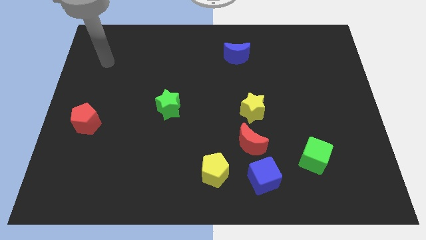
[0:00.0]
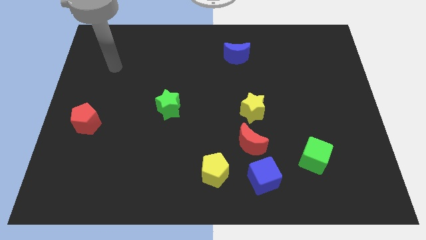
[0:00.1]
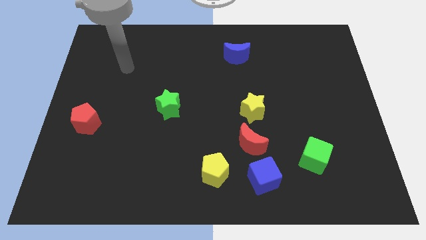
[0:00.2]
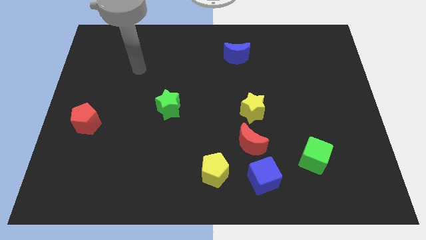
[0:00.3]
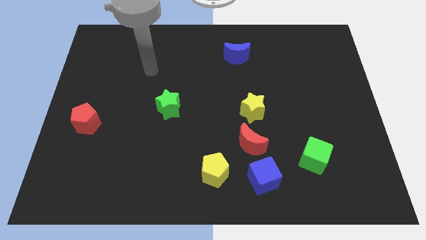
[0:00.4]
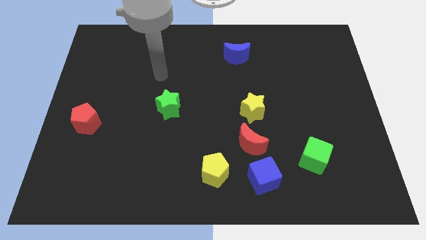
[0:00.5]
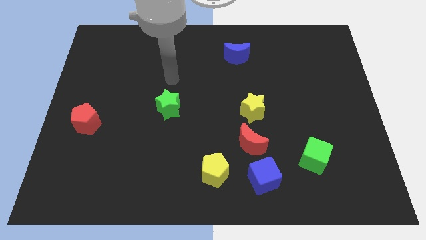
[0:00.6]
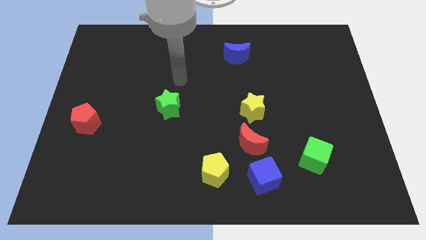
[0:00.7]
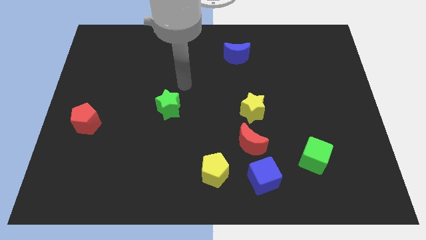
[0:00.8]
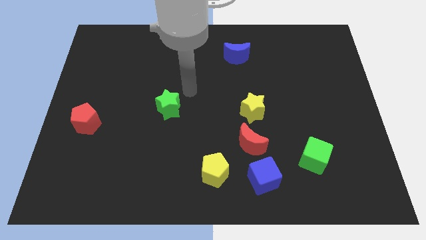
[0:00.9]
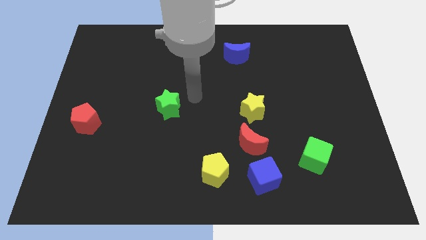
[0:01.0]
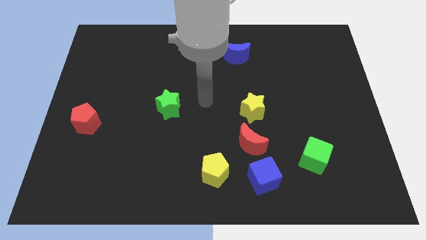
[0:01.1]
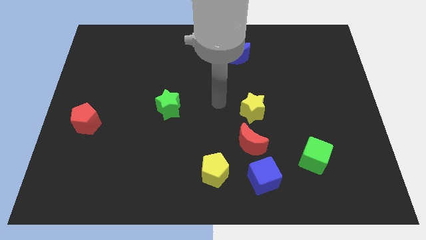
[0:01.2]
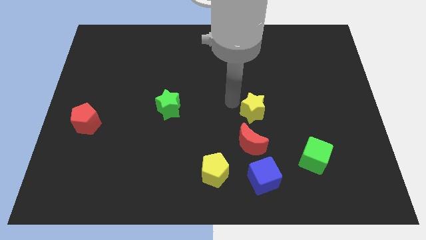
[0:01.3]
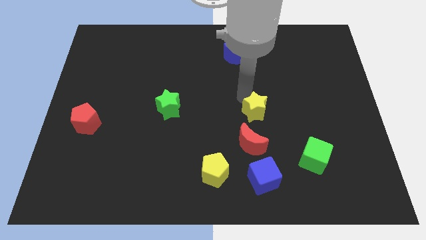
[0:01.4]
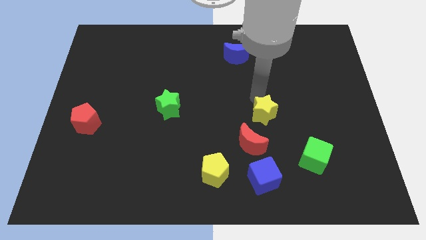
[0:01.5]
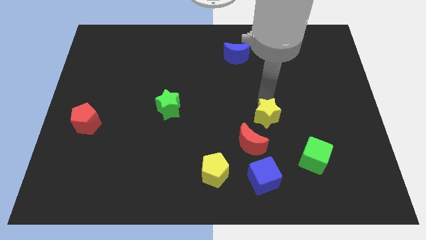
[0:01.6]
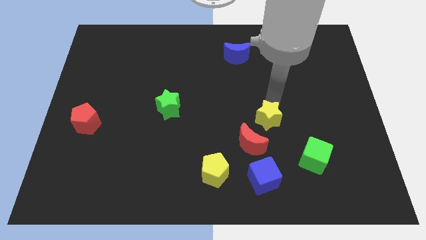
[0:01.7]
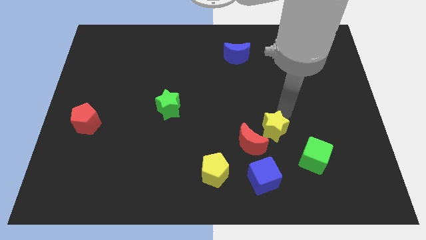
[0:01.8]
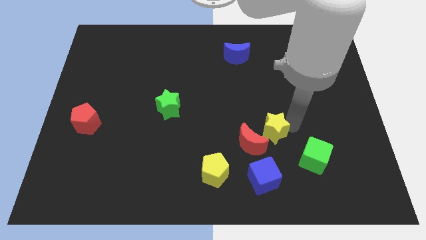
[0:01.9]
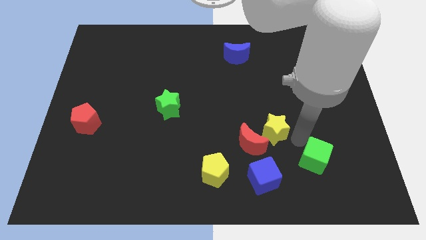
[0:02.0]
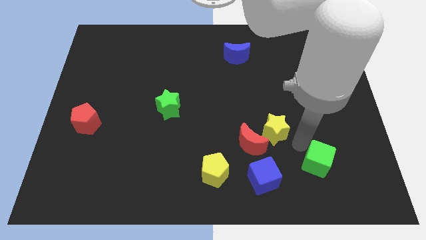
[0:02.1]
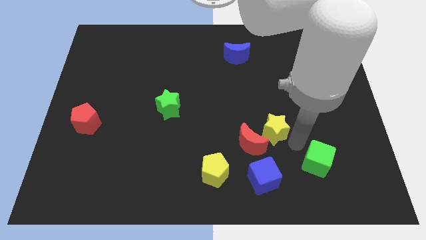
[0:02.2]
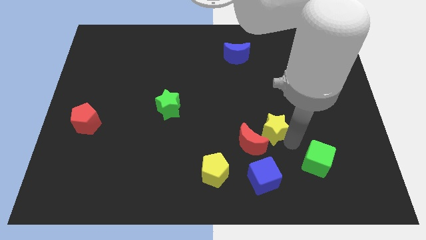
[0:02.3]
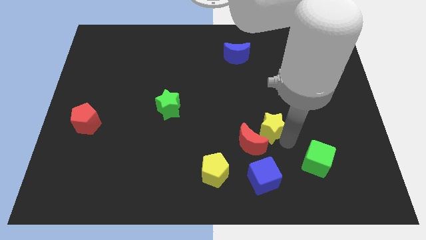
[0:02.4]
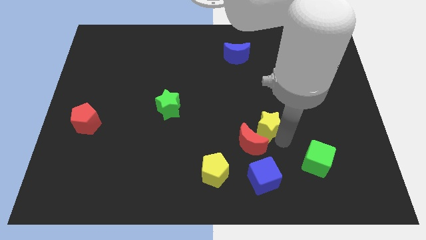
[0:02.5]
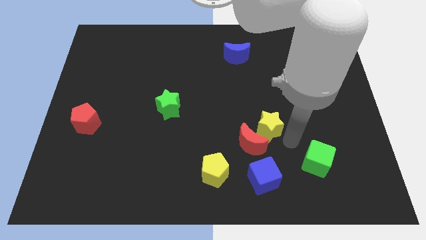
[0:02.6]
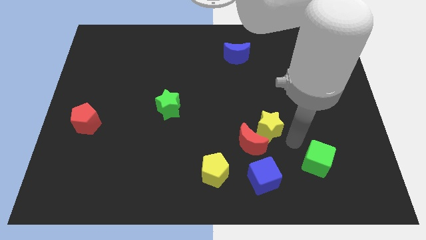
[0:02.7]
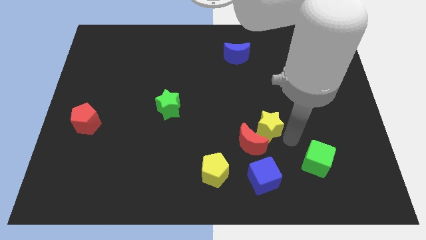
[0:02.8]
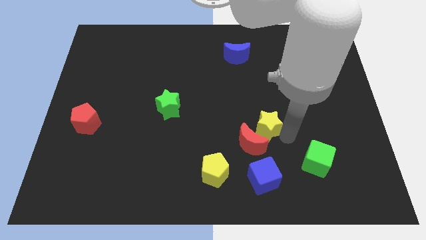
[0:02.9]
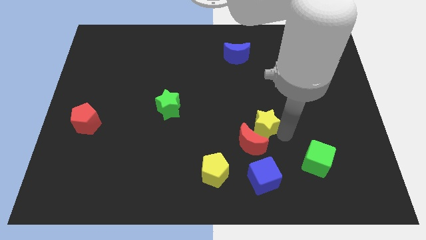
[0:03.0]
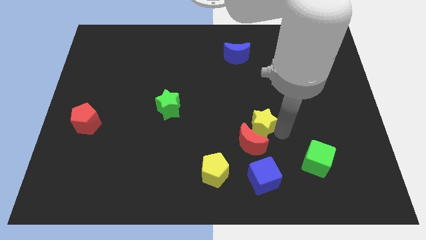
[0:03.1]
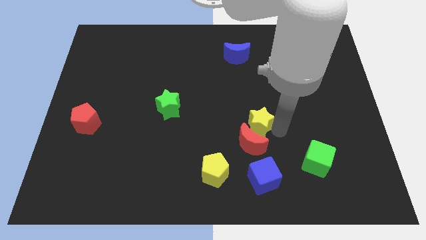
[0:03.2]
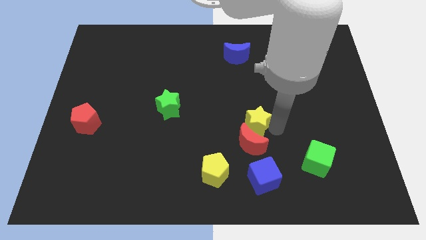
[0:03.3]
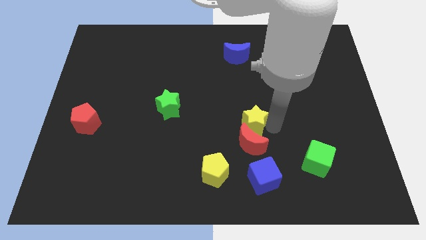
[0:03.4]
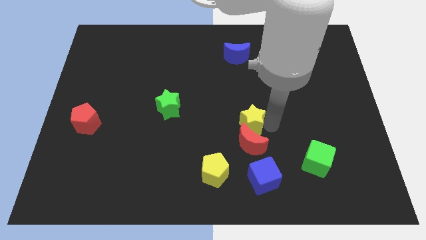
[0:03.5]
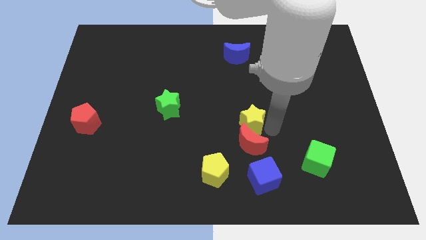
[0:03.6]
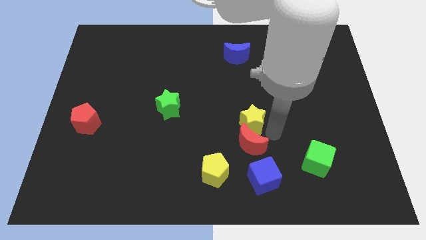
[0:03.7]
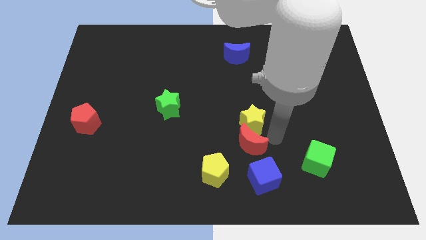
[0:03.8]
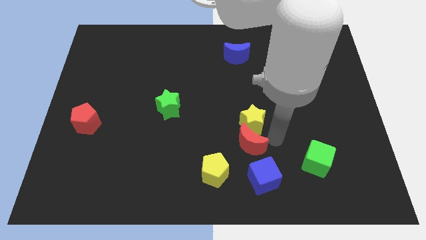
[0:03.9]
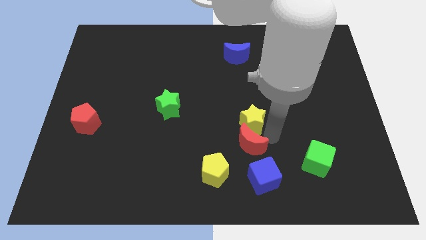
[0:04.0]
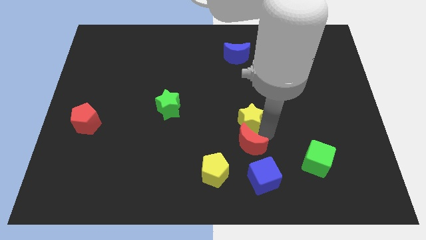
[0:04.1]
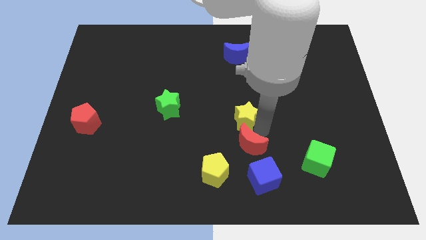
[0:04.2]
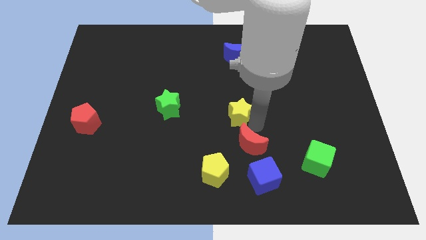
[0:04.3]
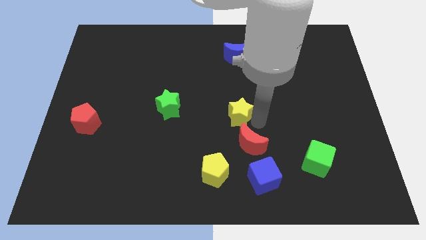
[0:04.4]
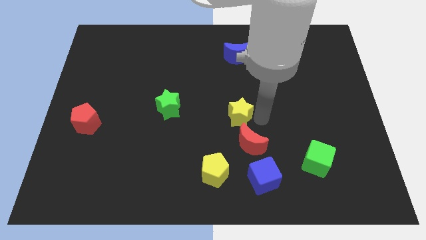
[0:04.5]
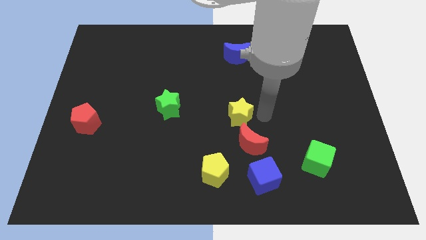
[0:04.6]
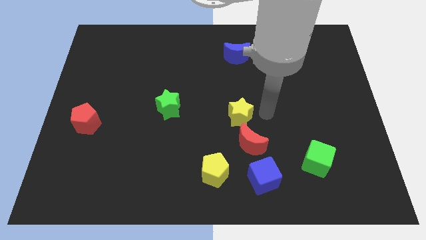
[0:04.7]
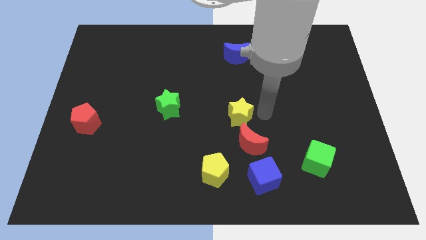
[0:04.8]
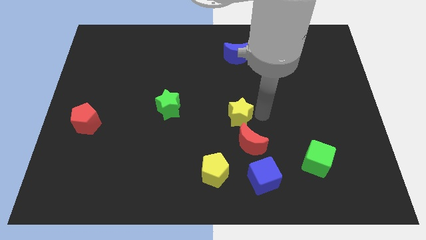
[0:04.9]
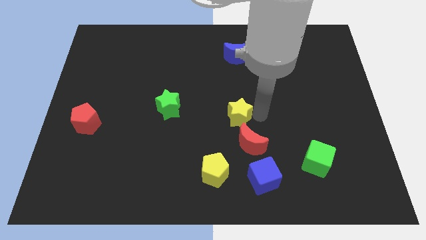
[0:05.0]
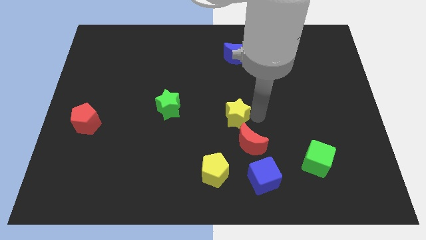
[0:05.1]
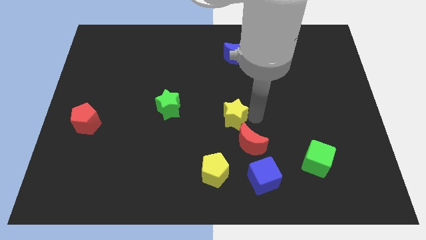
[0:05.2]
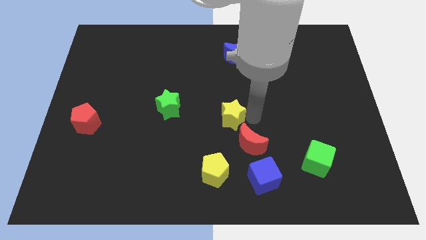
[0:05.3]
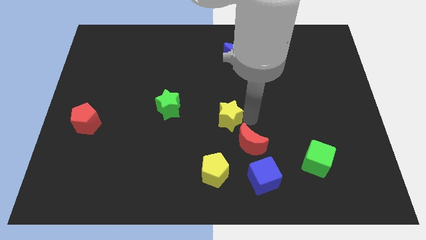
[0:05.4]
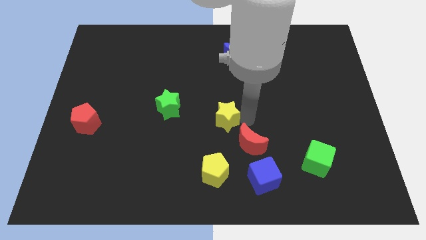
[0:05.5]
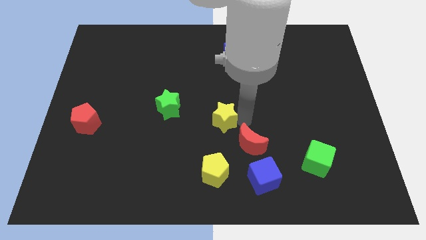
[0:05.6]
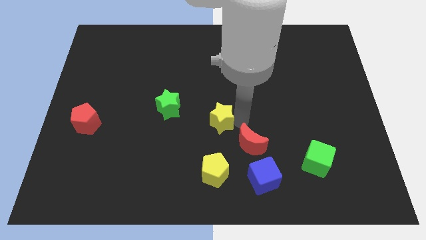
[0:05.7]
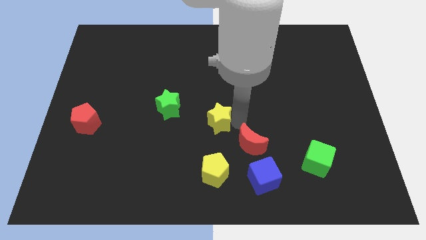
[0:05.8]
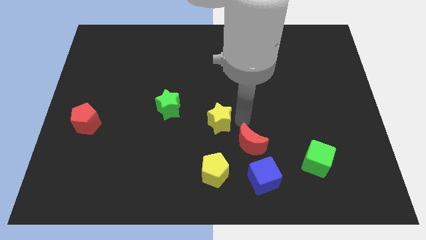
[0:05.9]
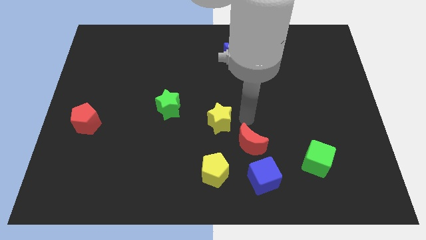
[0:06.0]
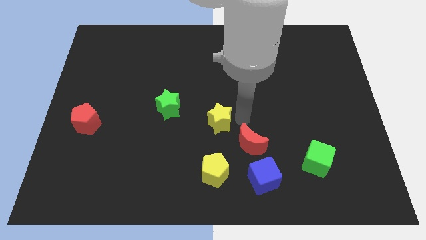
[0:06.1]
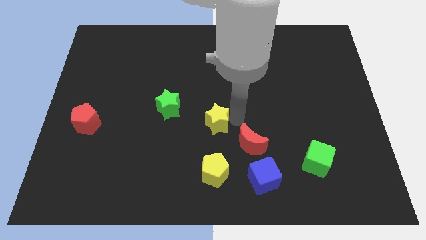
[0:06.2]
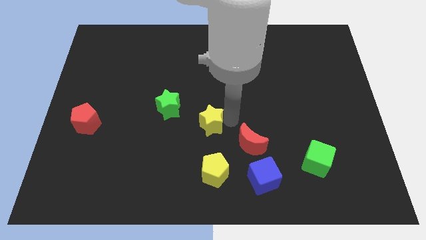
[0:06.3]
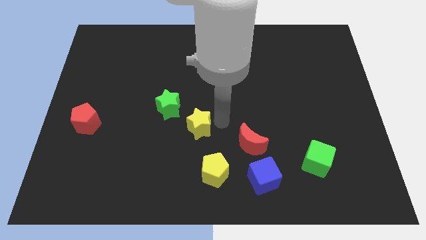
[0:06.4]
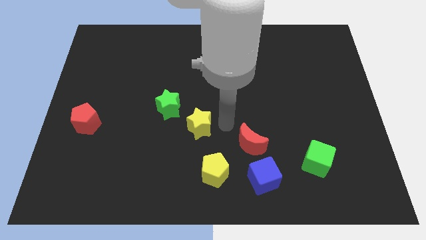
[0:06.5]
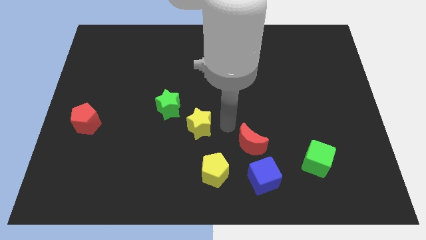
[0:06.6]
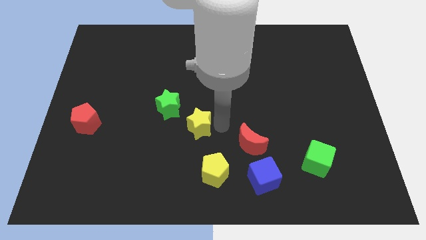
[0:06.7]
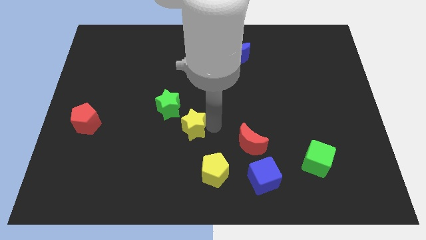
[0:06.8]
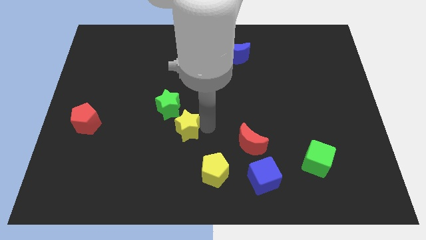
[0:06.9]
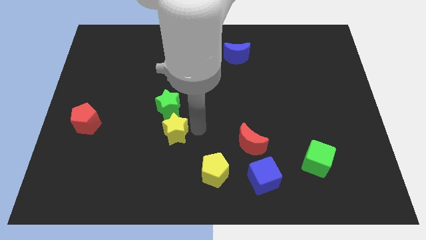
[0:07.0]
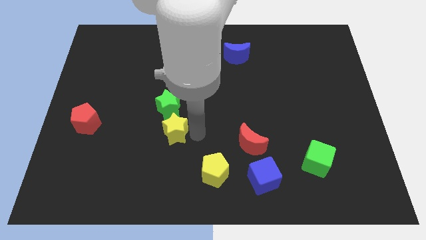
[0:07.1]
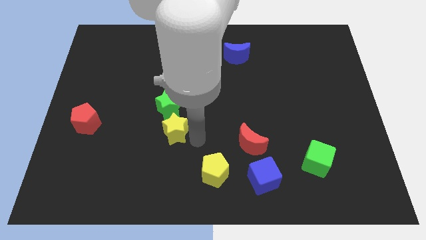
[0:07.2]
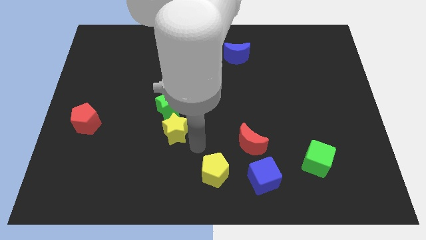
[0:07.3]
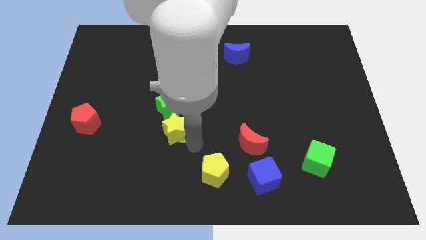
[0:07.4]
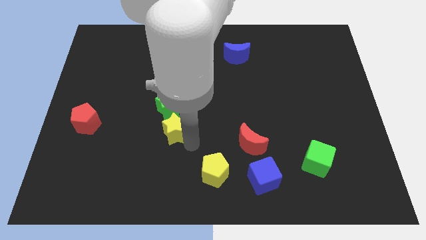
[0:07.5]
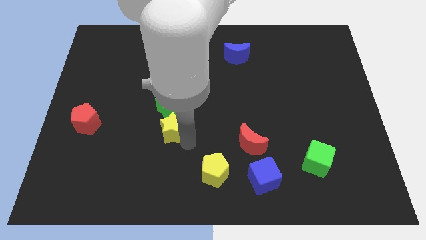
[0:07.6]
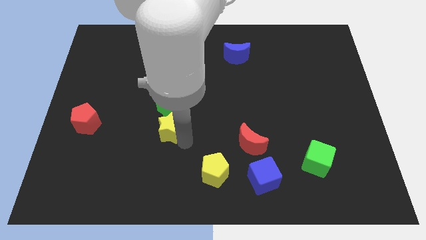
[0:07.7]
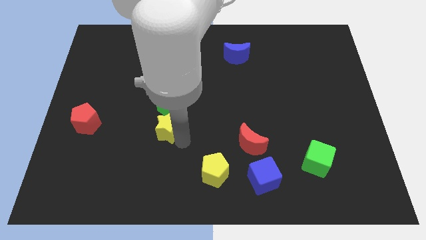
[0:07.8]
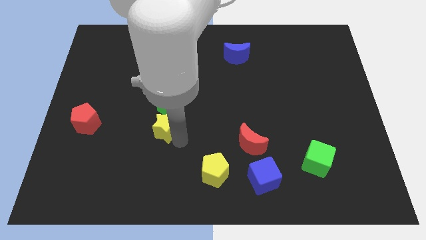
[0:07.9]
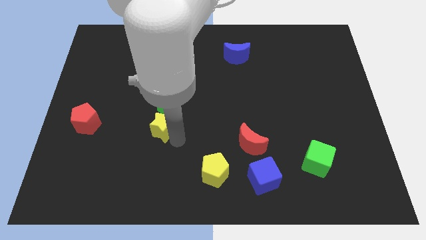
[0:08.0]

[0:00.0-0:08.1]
move the yellow star left

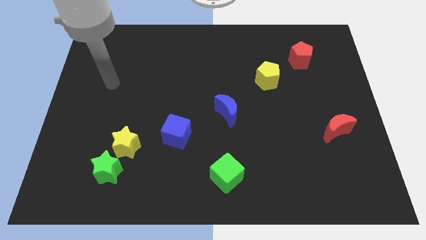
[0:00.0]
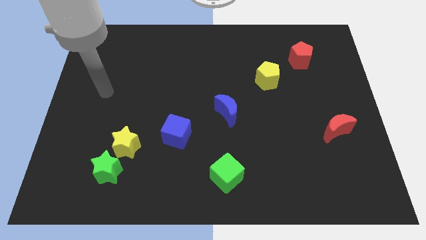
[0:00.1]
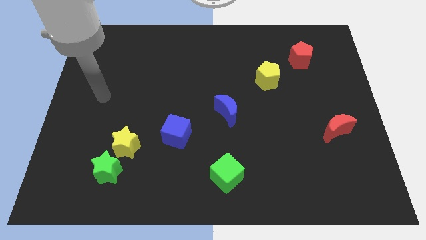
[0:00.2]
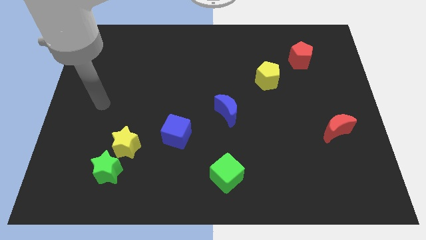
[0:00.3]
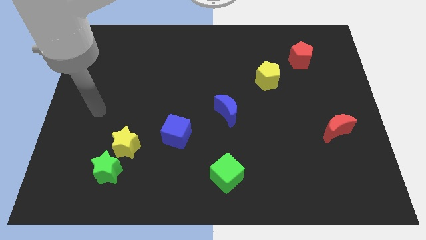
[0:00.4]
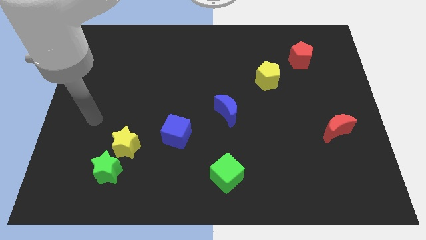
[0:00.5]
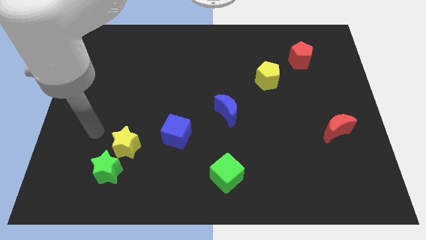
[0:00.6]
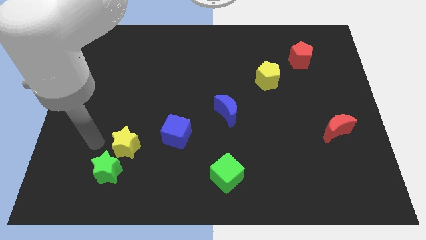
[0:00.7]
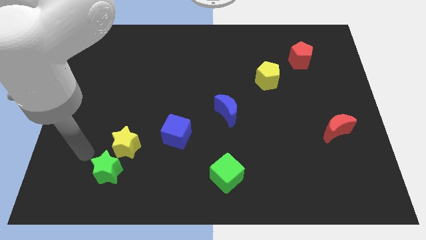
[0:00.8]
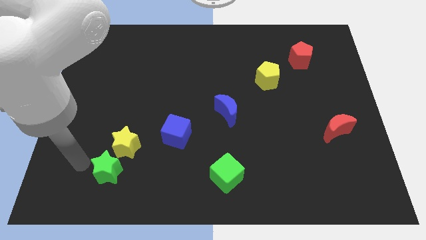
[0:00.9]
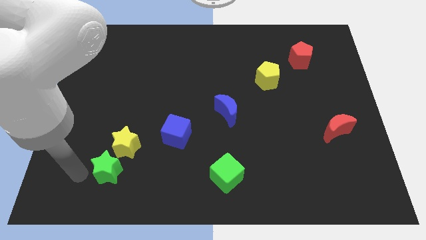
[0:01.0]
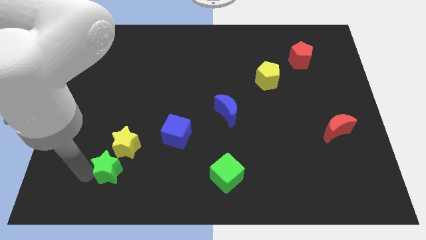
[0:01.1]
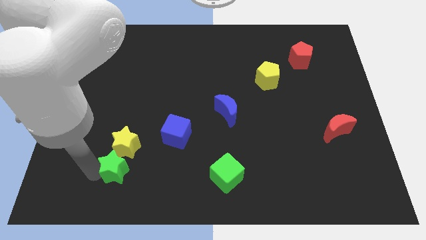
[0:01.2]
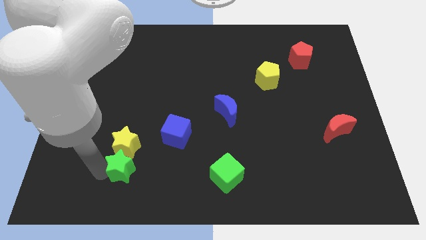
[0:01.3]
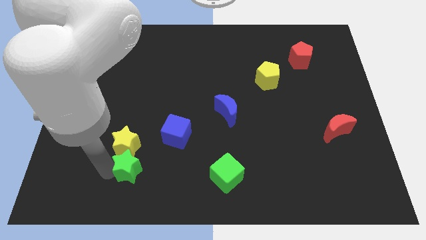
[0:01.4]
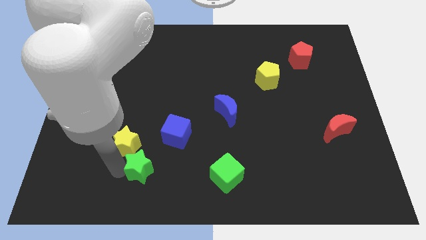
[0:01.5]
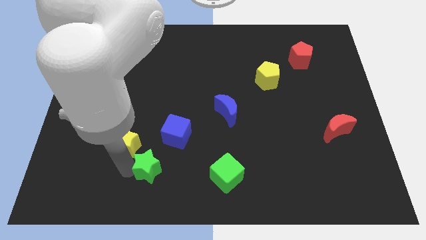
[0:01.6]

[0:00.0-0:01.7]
move the green star right a bit
